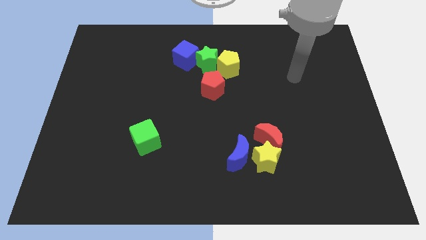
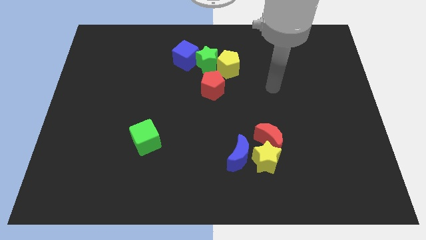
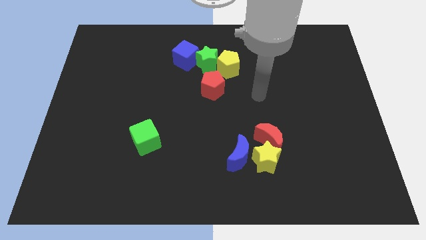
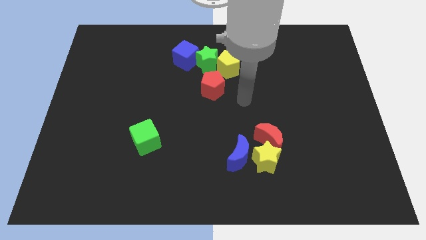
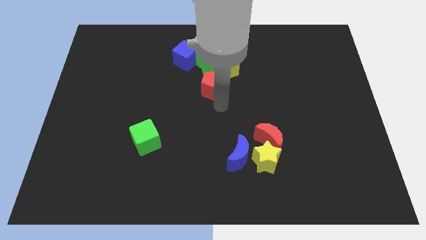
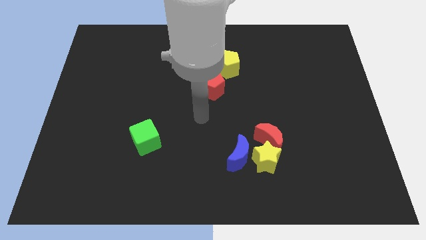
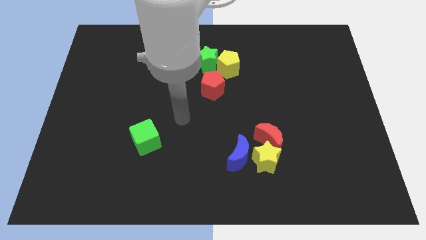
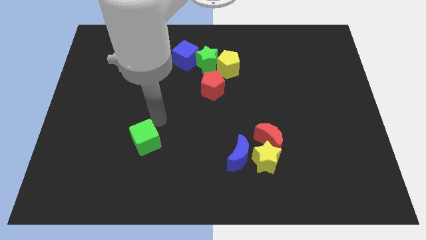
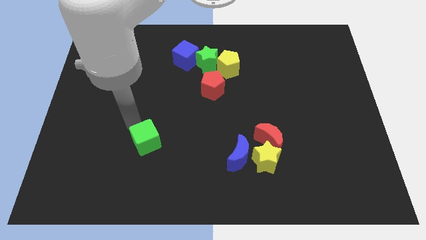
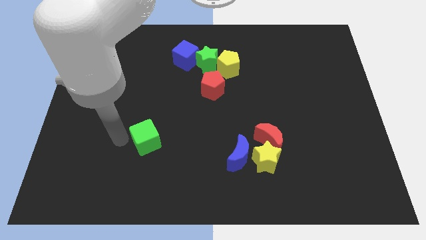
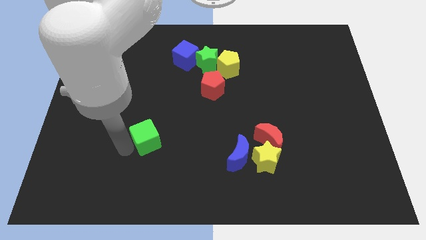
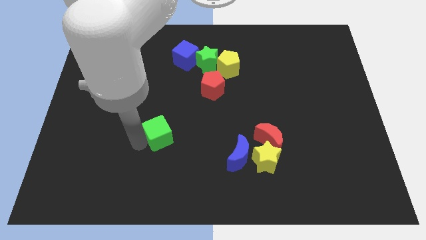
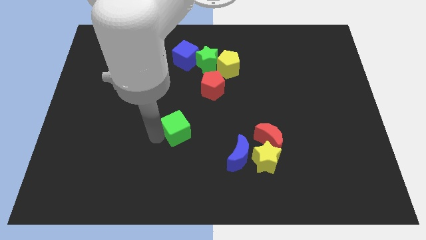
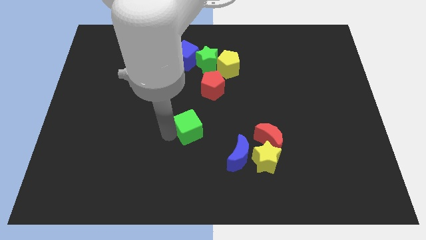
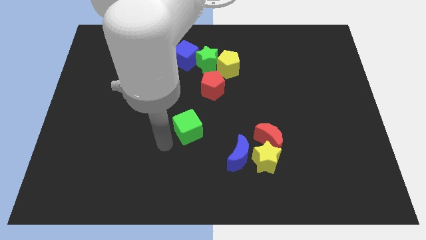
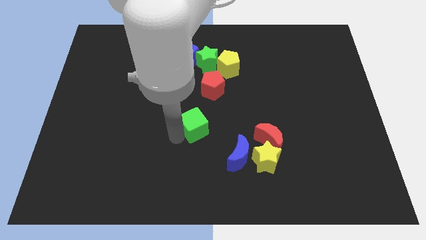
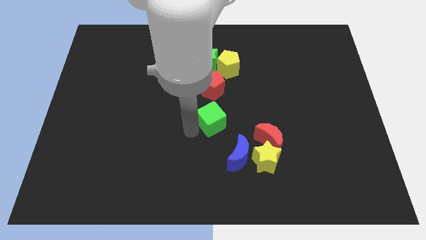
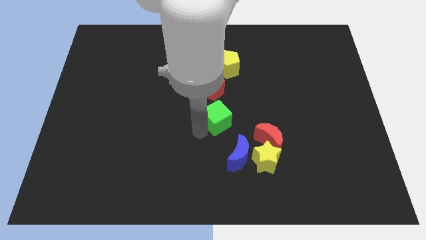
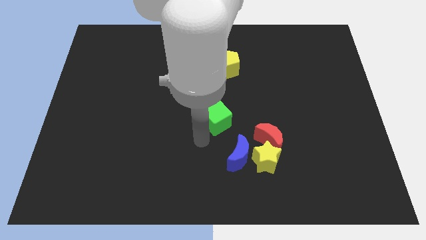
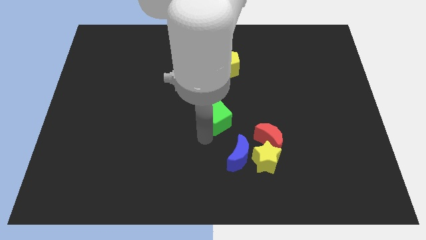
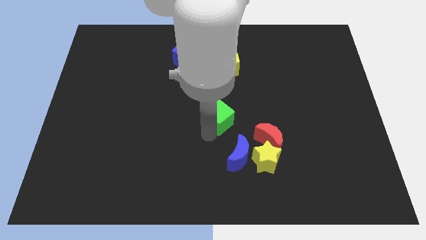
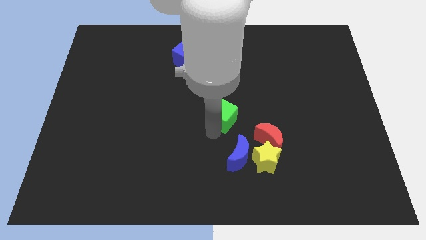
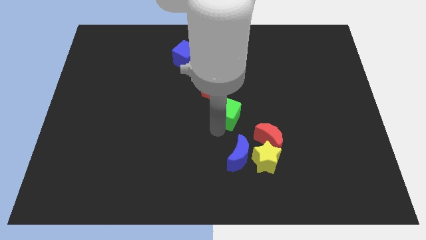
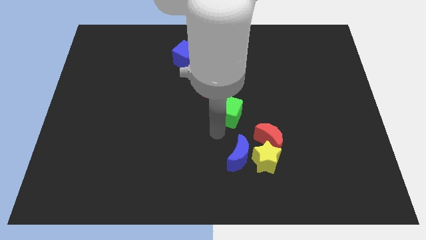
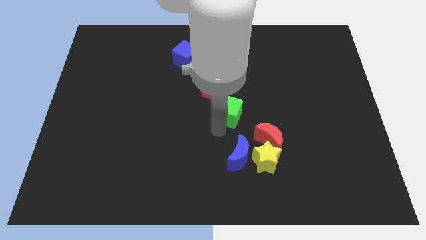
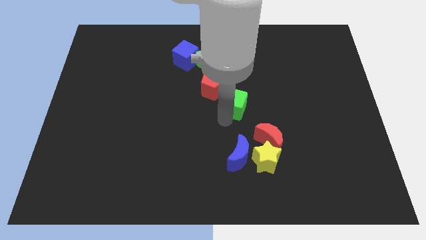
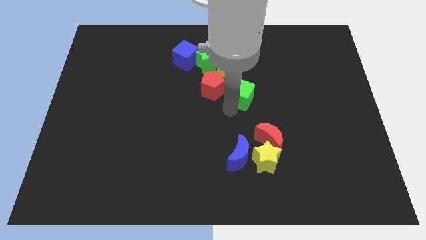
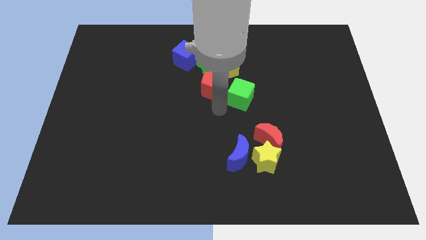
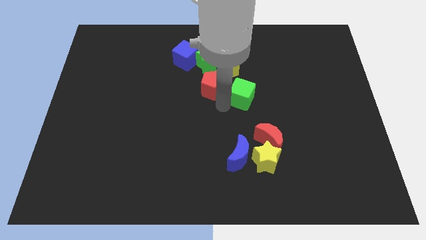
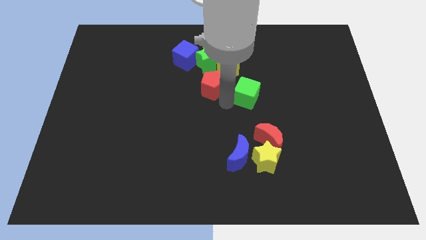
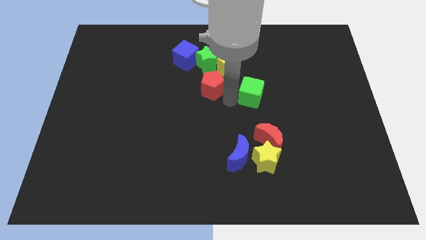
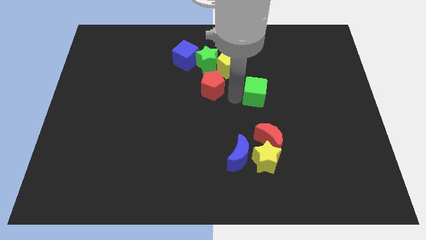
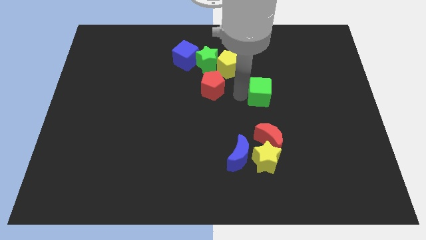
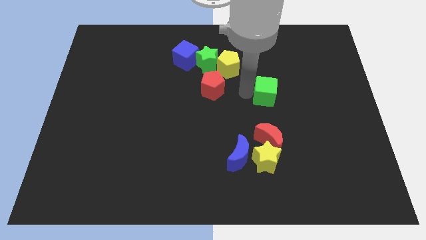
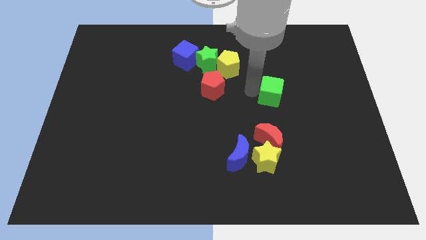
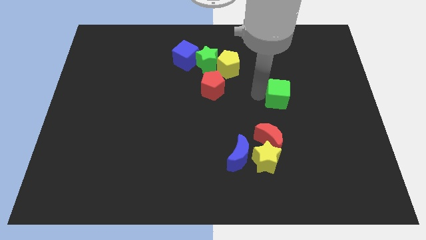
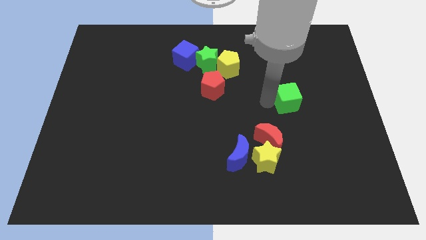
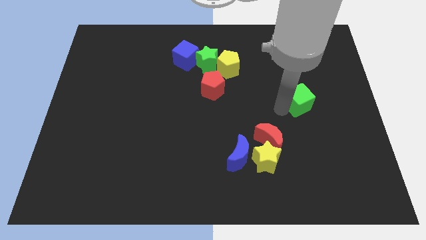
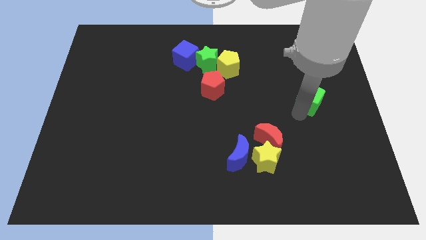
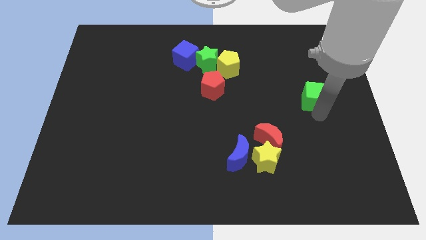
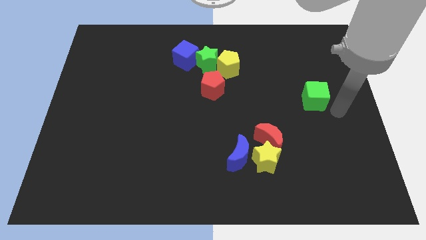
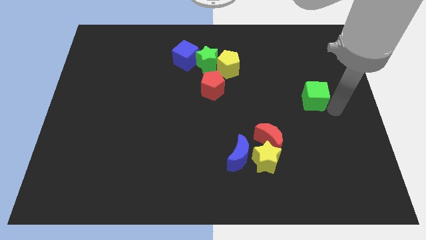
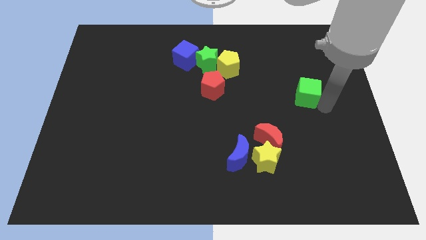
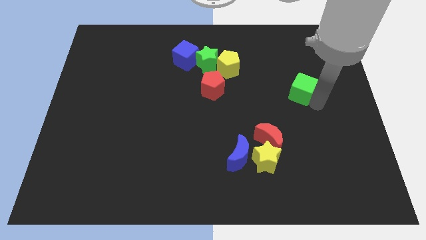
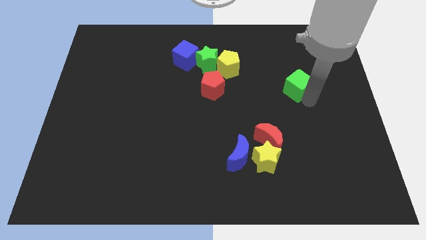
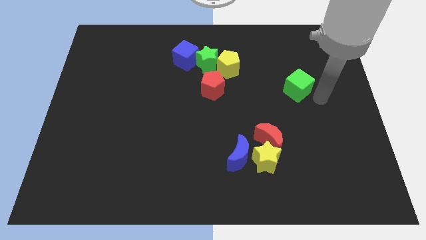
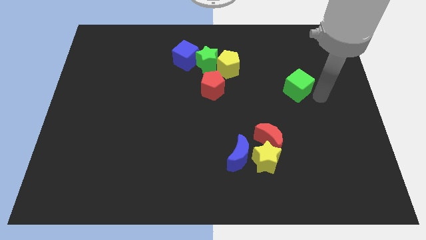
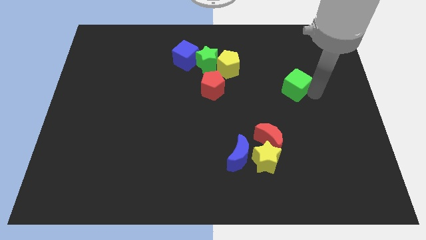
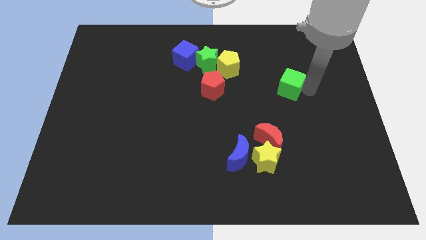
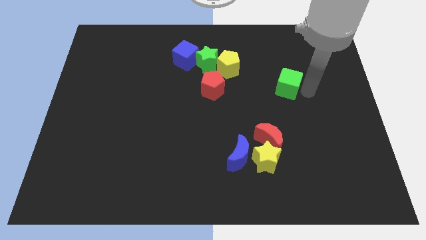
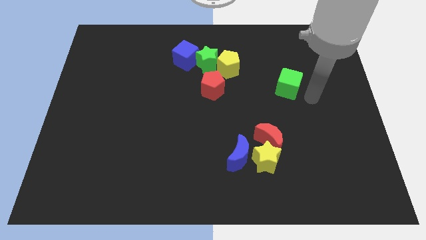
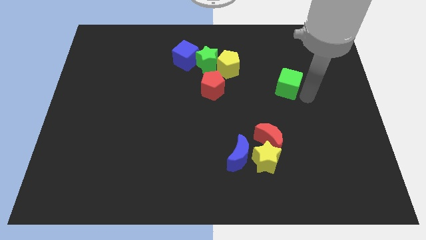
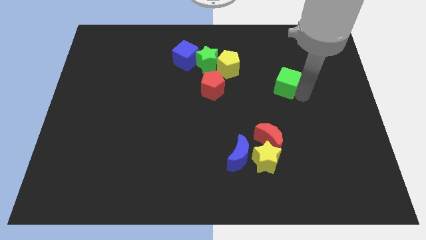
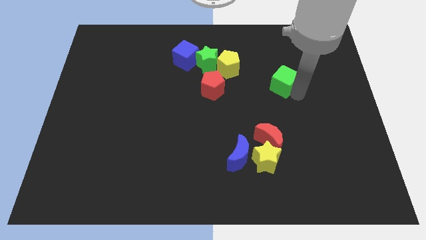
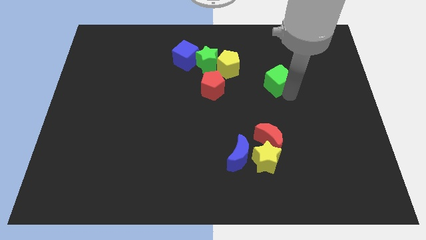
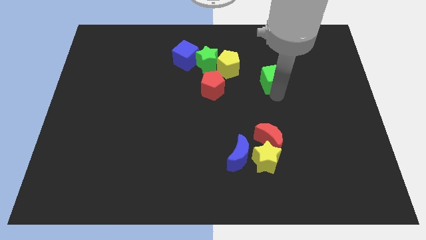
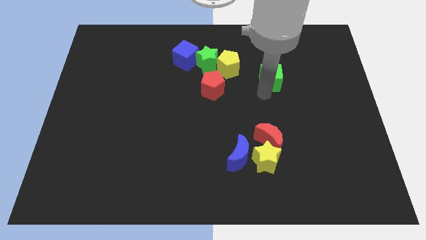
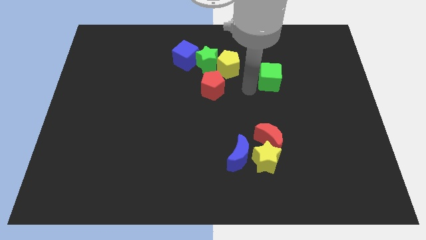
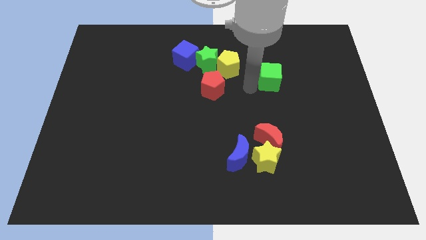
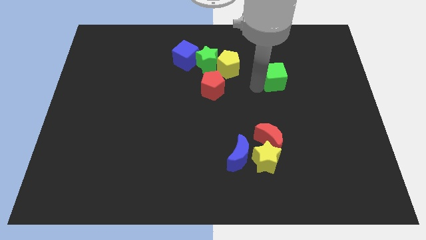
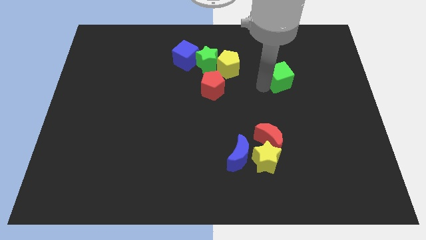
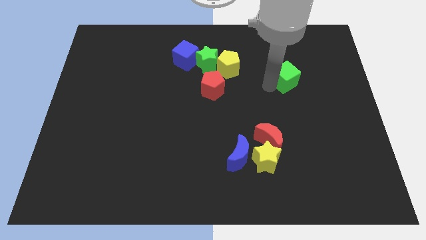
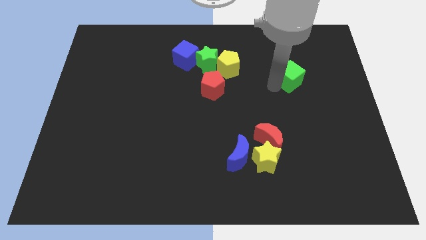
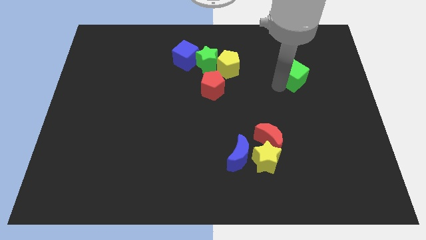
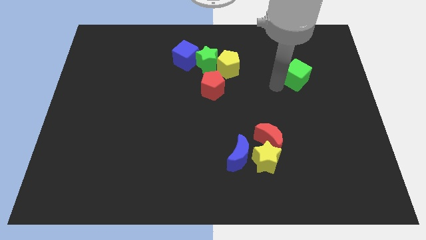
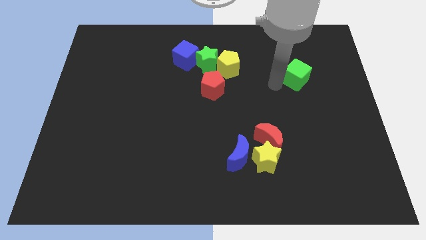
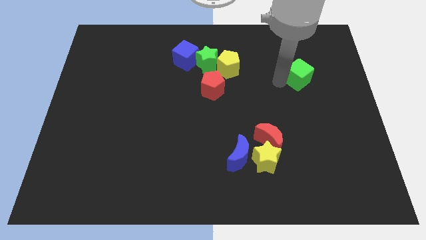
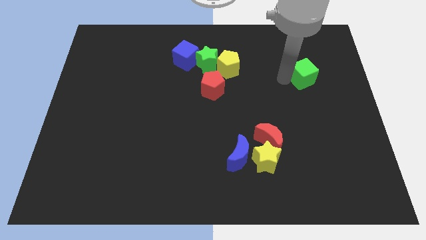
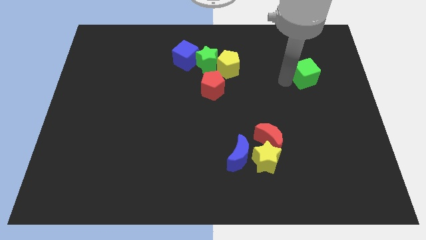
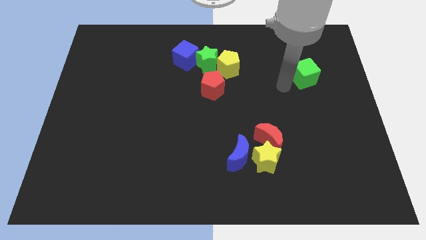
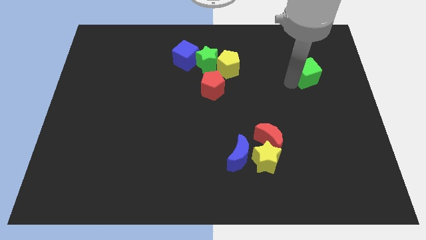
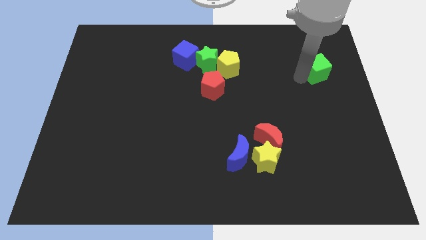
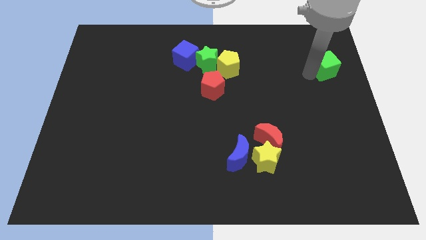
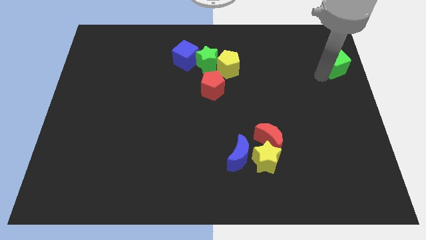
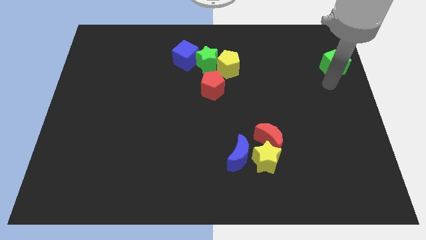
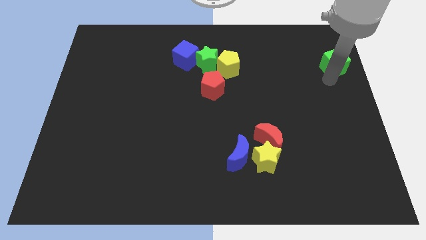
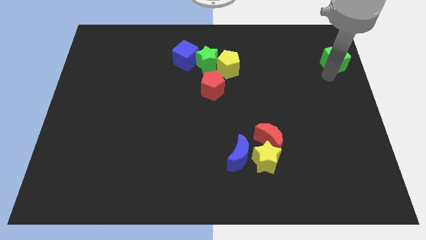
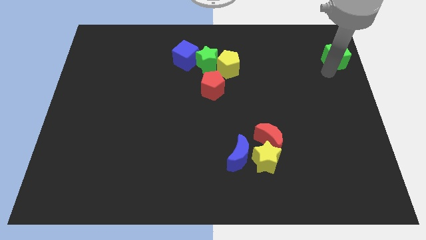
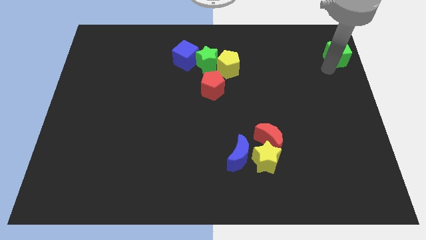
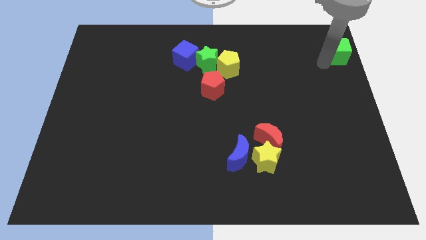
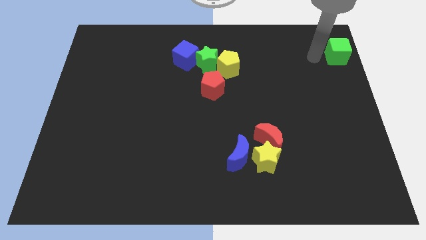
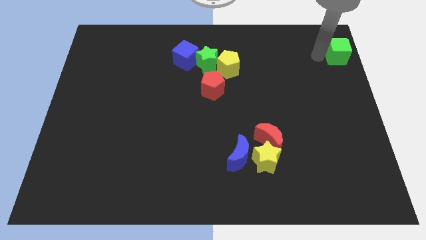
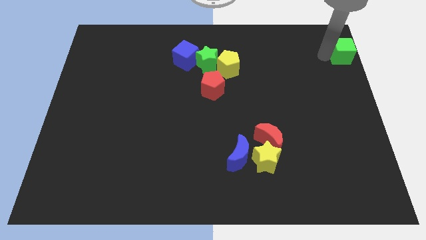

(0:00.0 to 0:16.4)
move the green cube to the top right of the board
